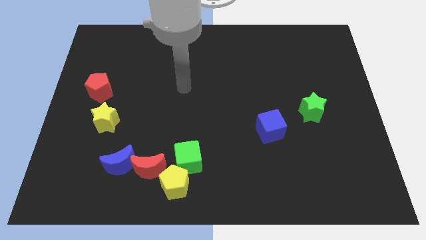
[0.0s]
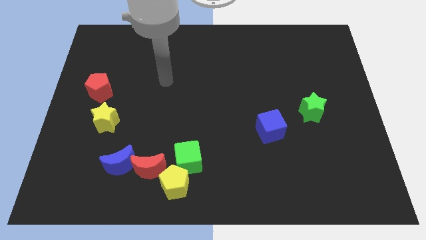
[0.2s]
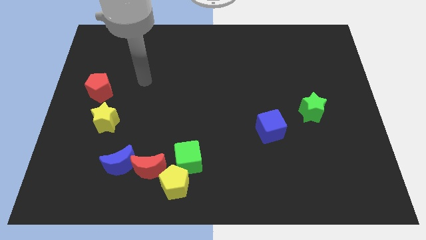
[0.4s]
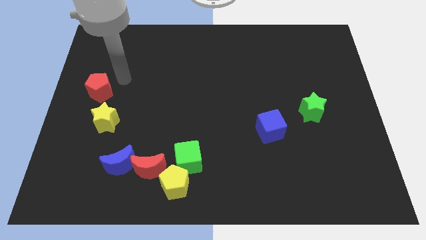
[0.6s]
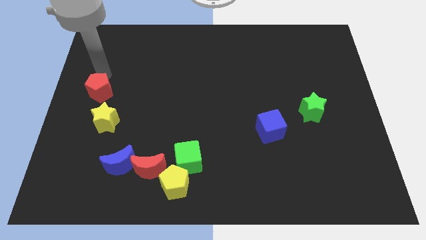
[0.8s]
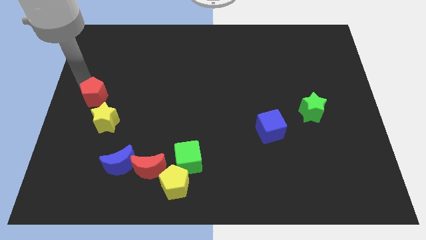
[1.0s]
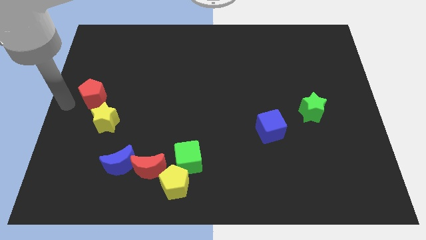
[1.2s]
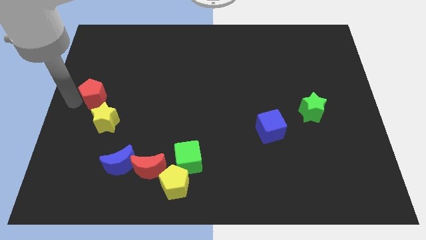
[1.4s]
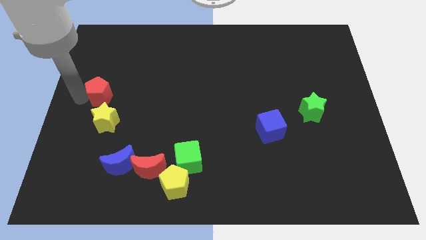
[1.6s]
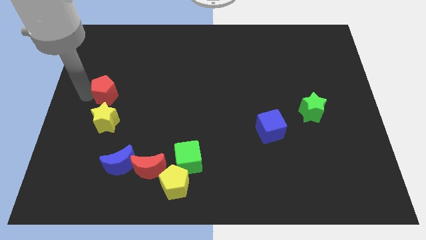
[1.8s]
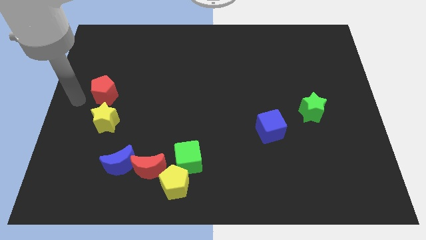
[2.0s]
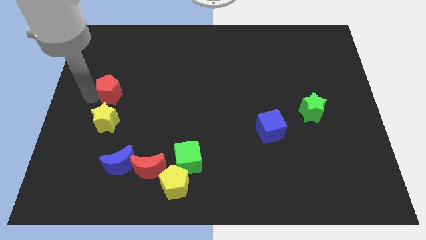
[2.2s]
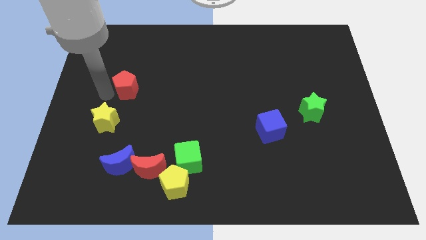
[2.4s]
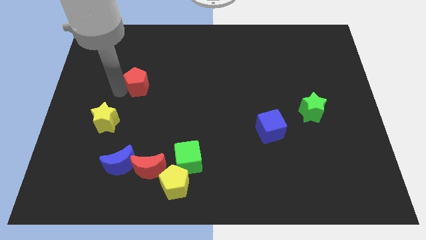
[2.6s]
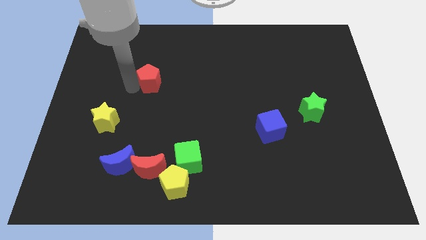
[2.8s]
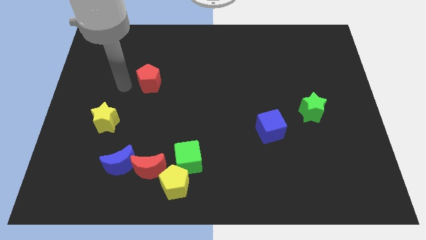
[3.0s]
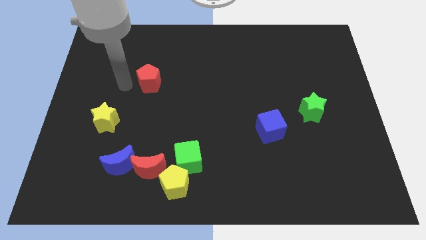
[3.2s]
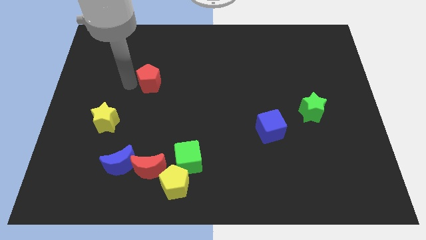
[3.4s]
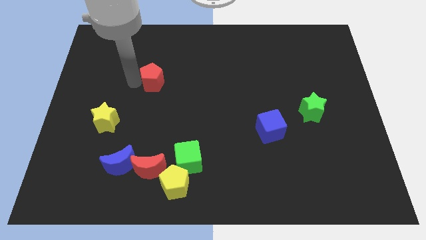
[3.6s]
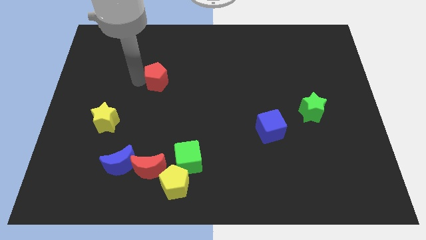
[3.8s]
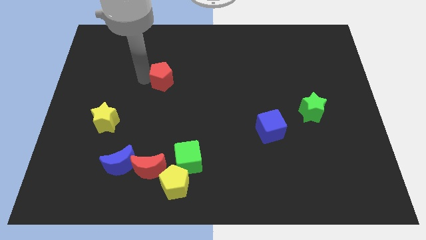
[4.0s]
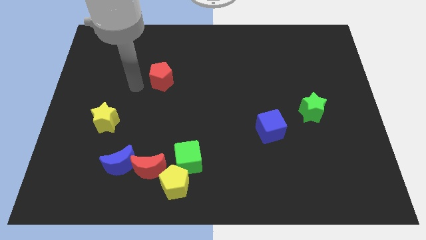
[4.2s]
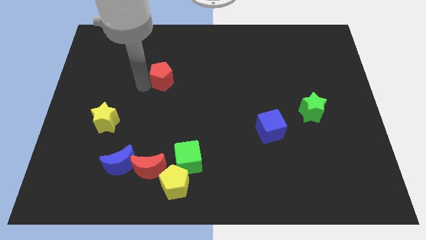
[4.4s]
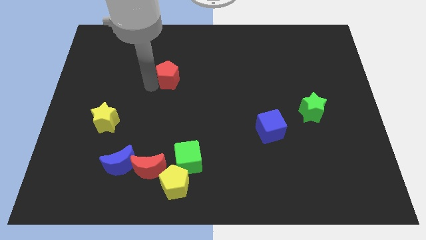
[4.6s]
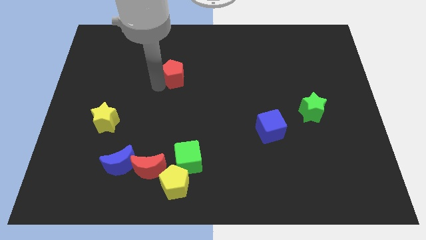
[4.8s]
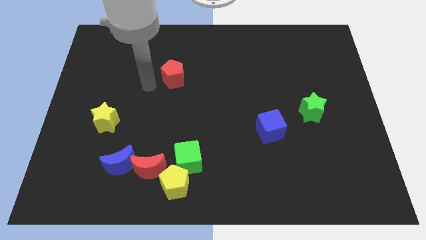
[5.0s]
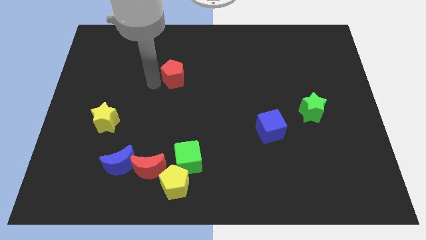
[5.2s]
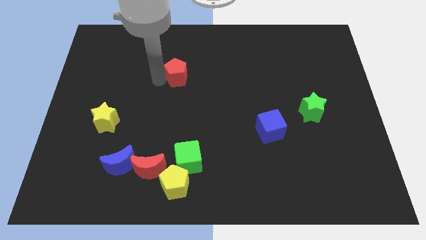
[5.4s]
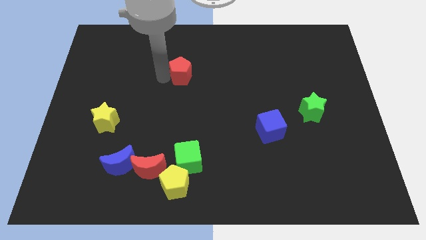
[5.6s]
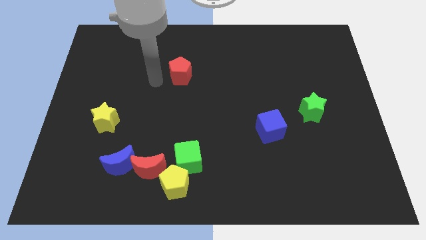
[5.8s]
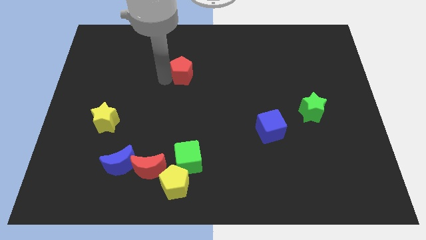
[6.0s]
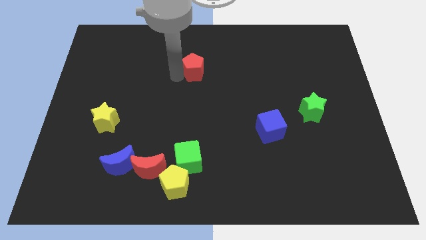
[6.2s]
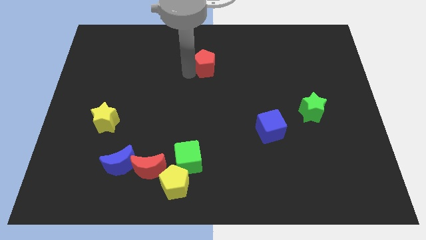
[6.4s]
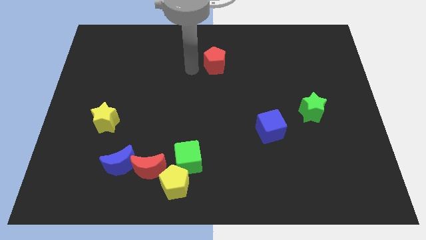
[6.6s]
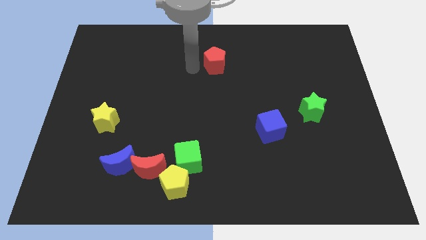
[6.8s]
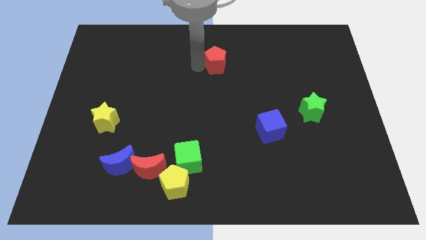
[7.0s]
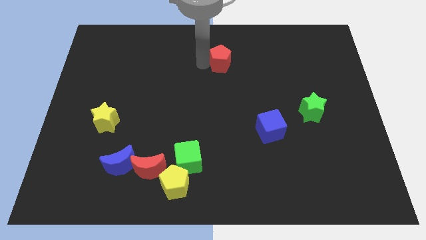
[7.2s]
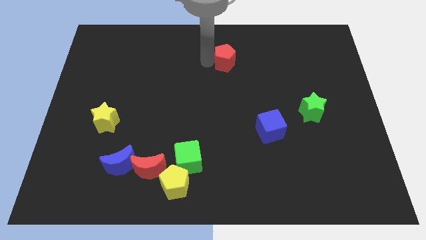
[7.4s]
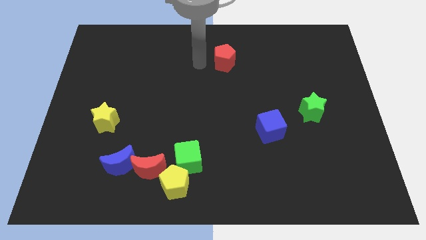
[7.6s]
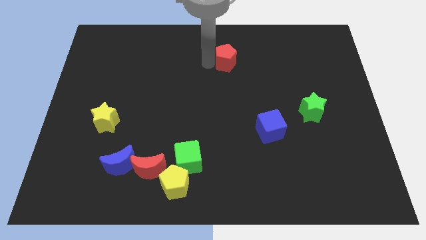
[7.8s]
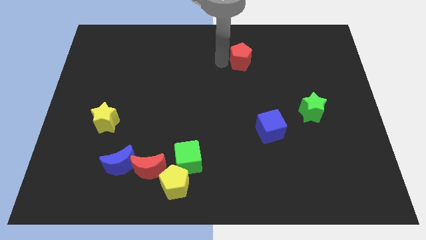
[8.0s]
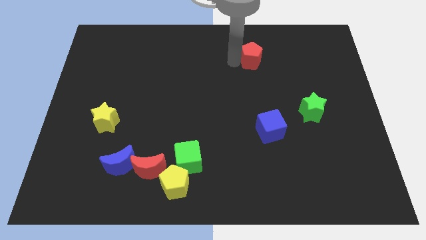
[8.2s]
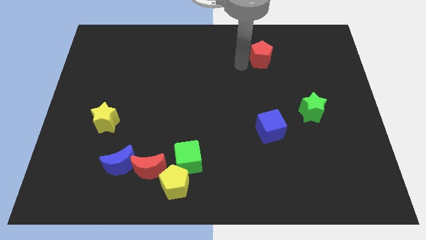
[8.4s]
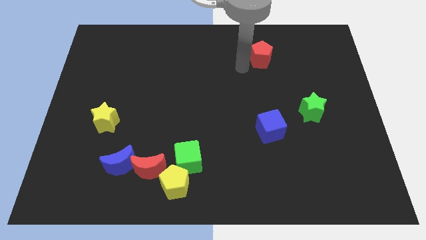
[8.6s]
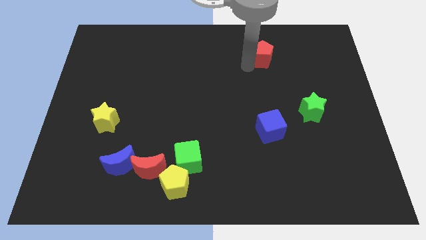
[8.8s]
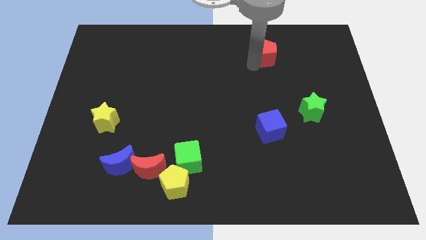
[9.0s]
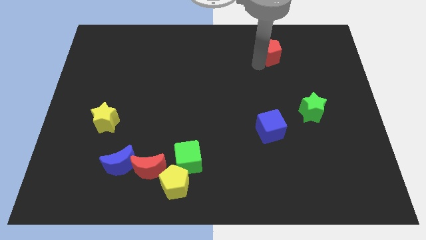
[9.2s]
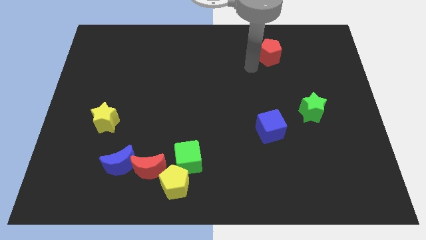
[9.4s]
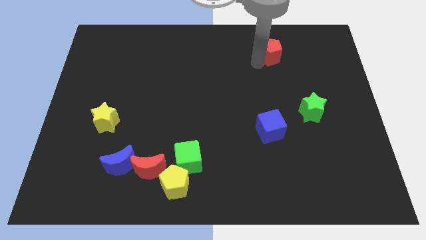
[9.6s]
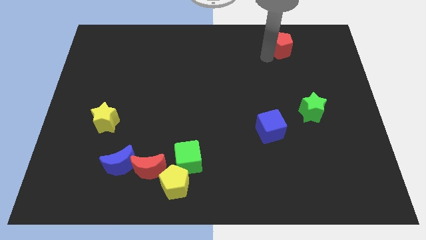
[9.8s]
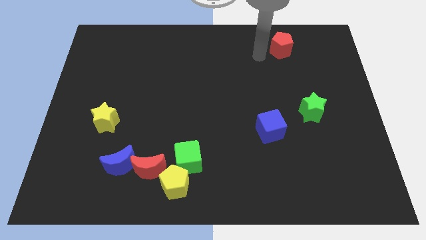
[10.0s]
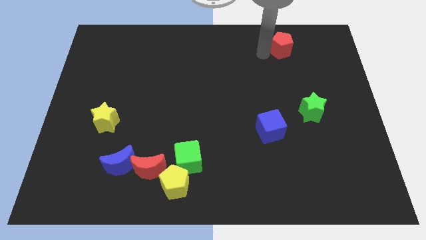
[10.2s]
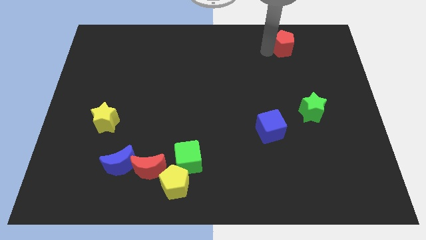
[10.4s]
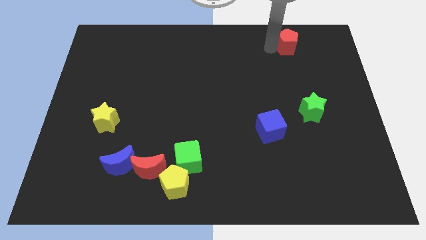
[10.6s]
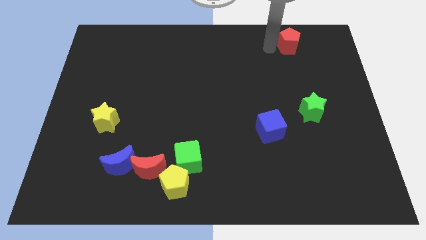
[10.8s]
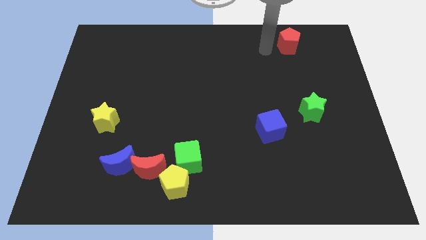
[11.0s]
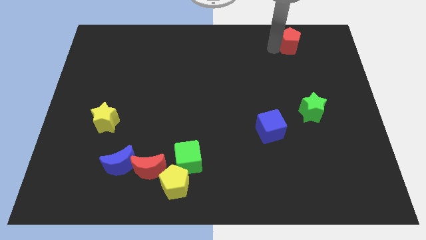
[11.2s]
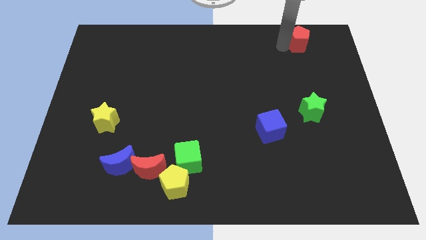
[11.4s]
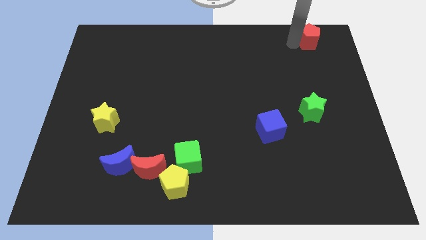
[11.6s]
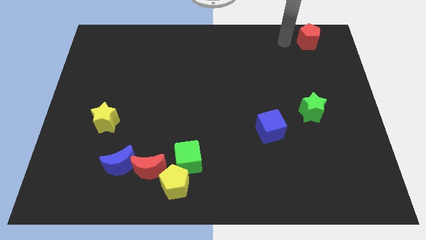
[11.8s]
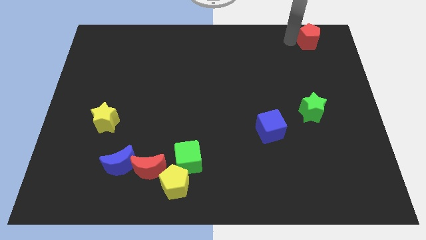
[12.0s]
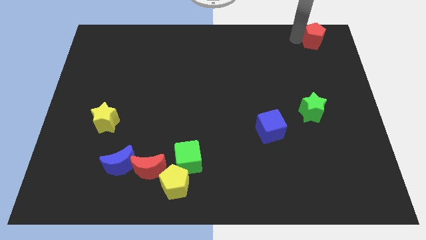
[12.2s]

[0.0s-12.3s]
move the red pentagon to the upper right corner

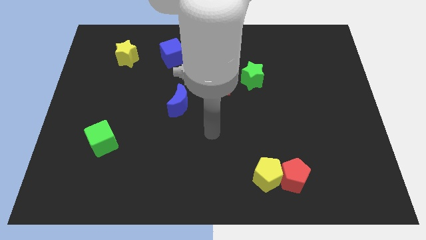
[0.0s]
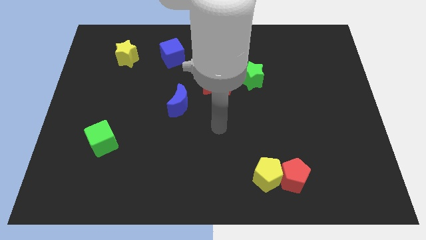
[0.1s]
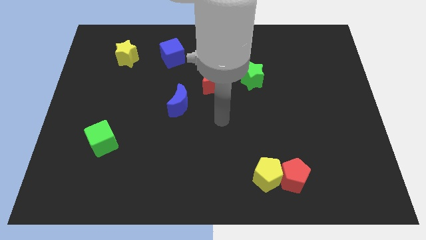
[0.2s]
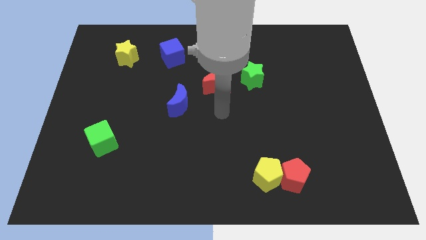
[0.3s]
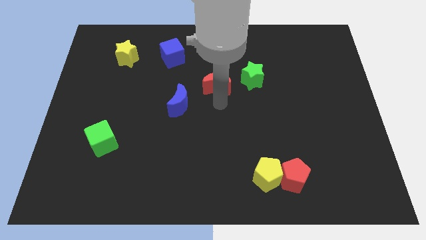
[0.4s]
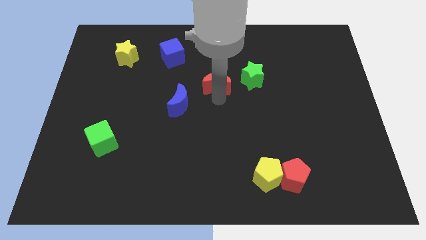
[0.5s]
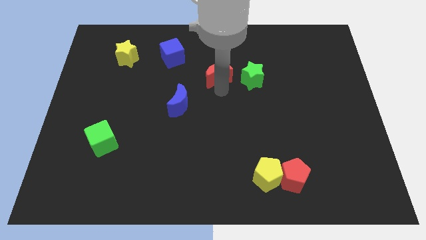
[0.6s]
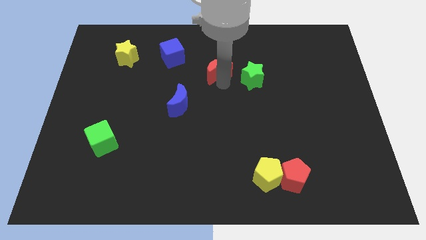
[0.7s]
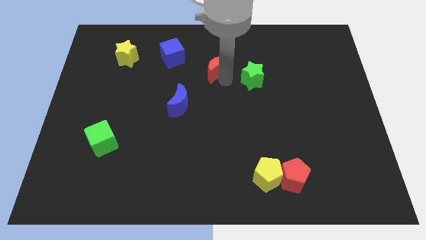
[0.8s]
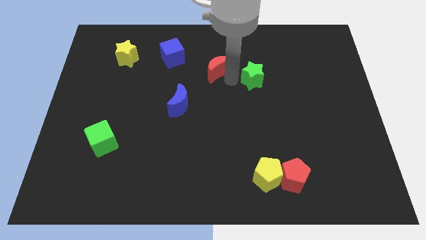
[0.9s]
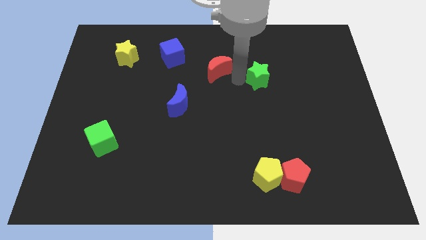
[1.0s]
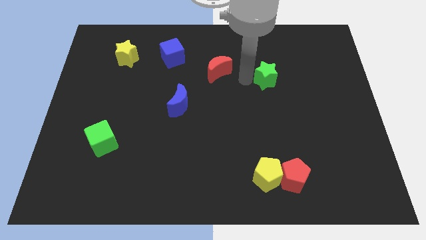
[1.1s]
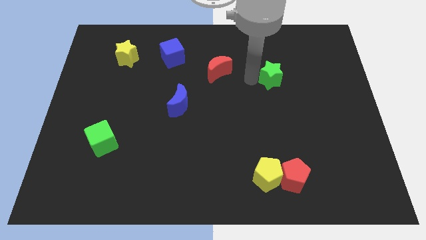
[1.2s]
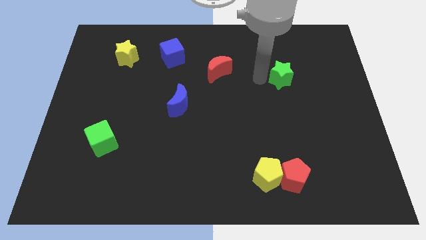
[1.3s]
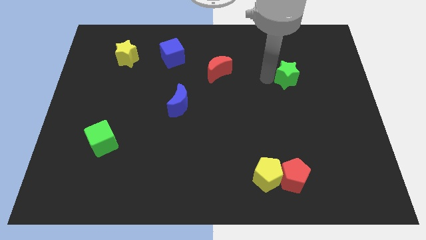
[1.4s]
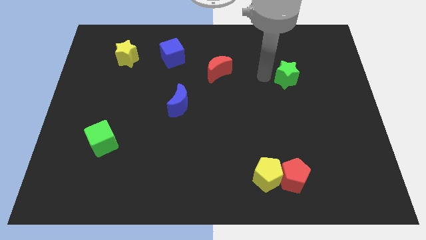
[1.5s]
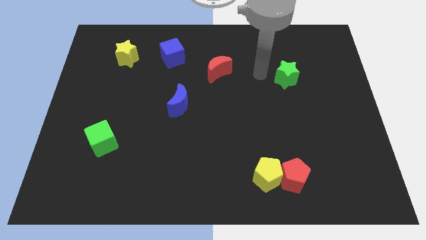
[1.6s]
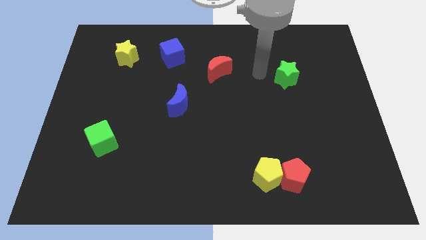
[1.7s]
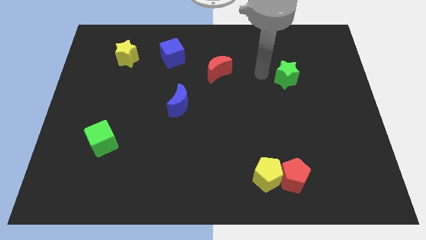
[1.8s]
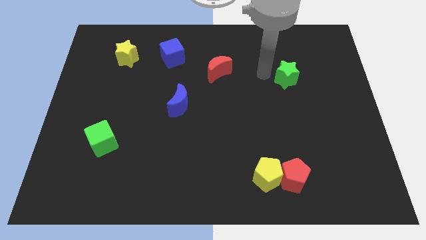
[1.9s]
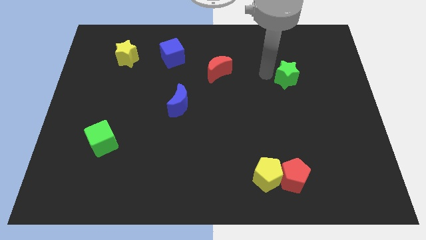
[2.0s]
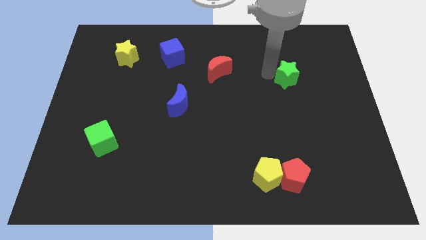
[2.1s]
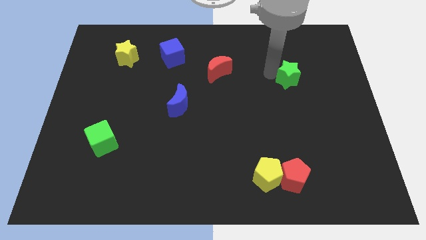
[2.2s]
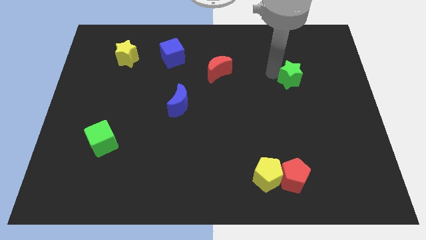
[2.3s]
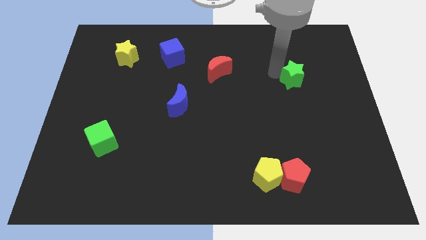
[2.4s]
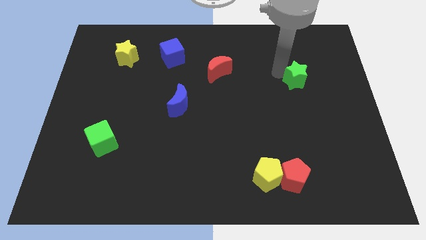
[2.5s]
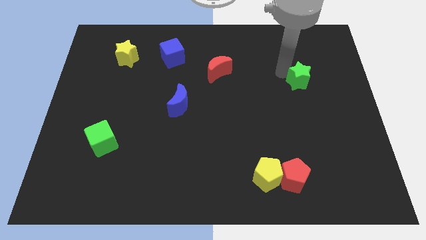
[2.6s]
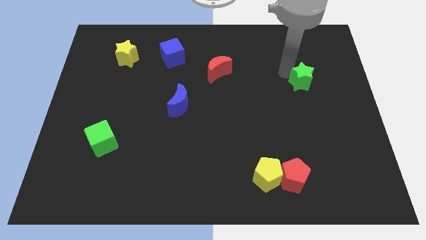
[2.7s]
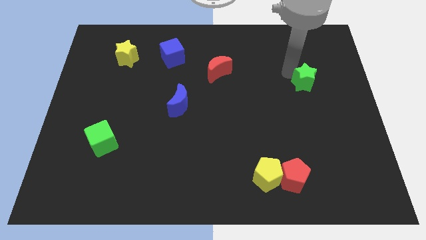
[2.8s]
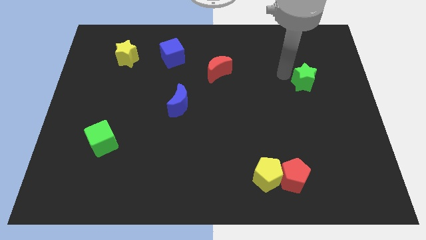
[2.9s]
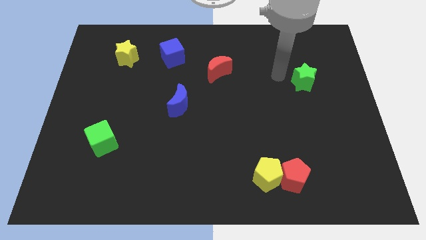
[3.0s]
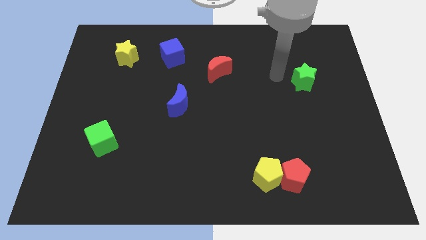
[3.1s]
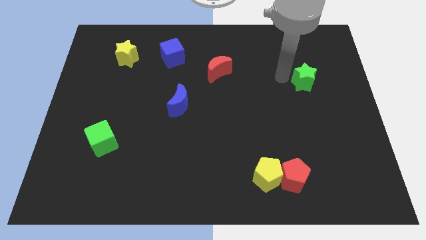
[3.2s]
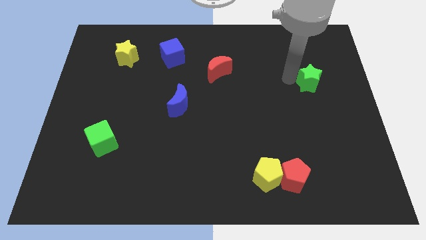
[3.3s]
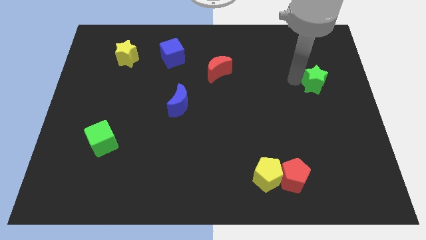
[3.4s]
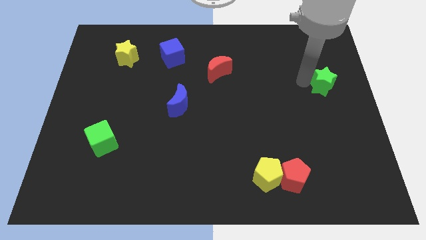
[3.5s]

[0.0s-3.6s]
move the green star to the right side
